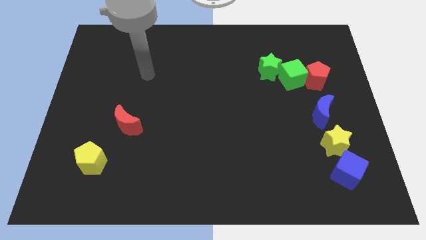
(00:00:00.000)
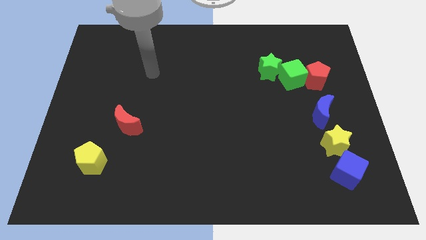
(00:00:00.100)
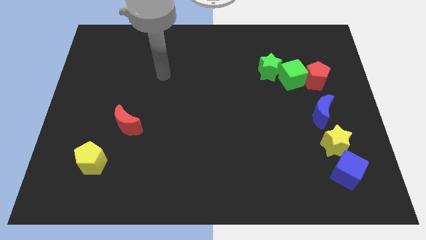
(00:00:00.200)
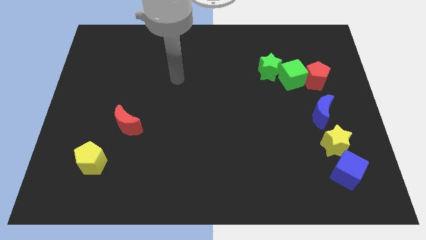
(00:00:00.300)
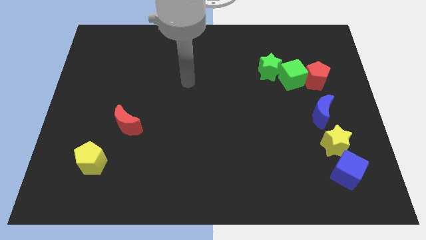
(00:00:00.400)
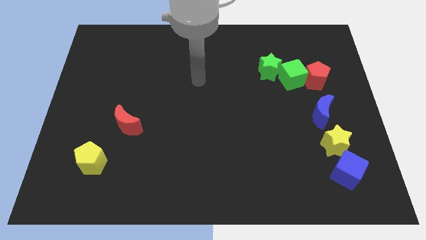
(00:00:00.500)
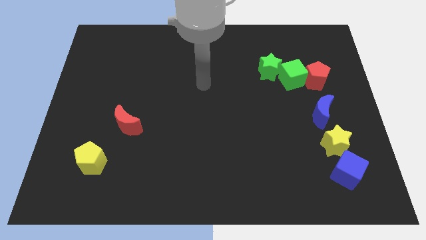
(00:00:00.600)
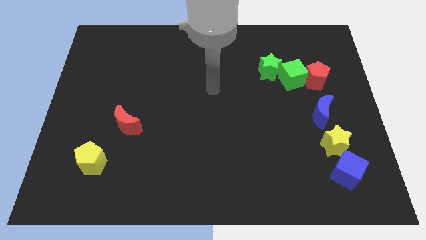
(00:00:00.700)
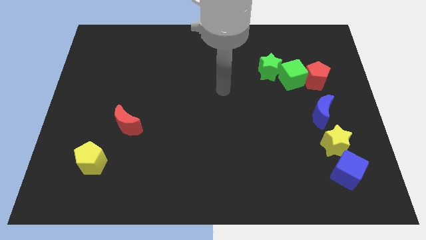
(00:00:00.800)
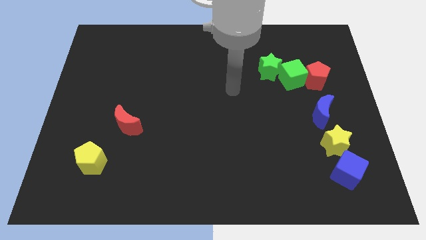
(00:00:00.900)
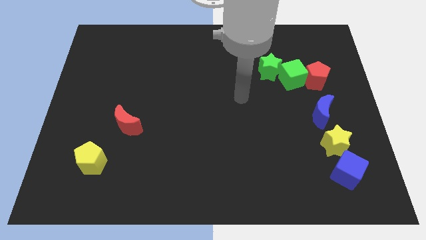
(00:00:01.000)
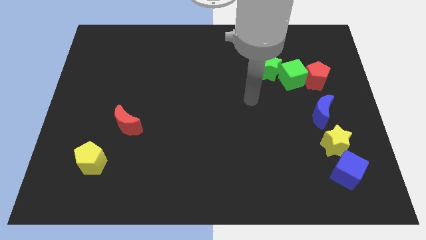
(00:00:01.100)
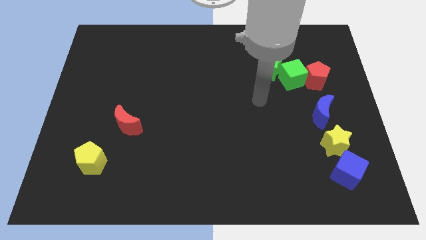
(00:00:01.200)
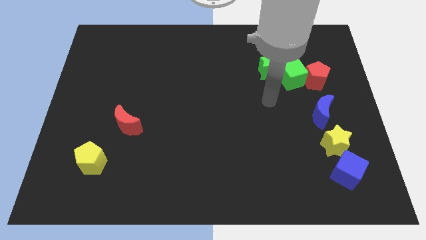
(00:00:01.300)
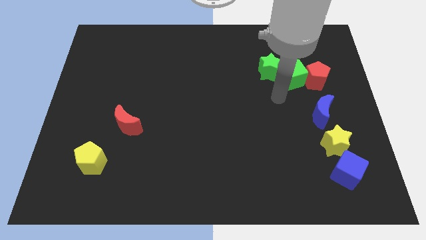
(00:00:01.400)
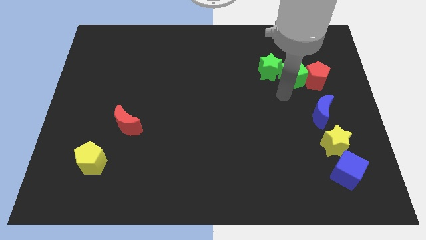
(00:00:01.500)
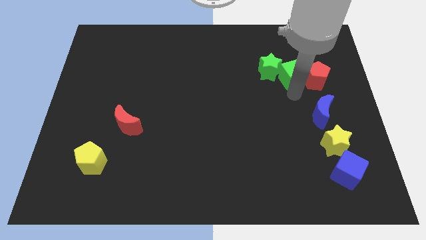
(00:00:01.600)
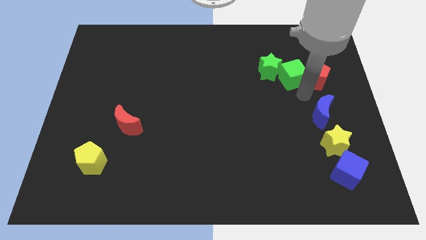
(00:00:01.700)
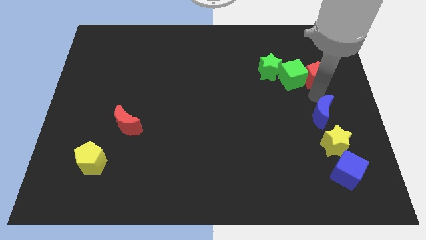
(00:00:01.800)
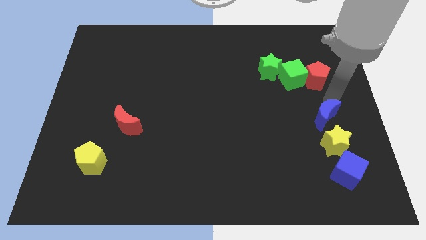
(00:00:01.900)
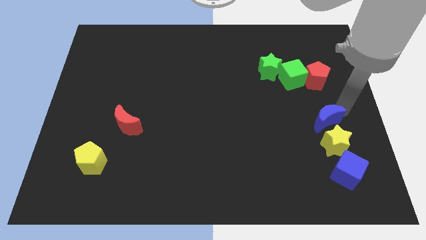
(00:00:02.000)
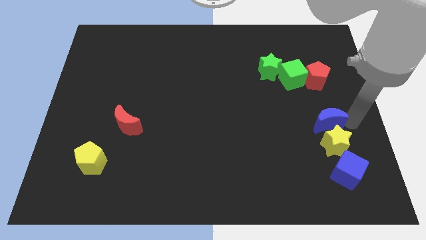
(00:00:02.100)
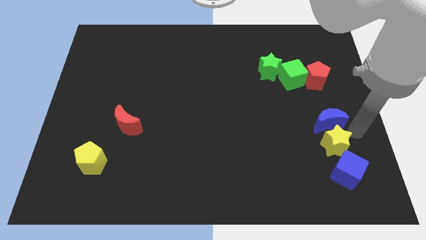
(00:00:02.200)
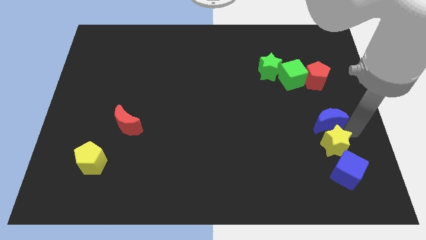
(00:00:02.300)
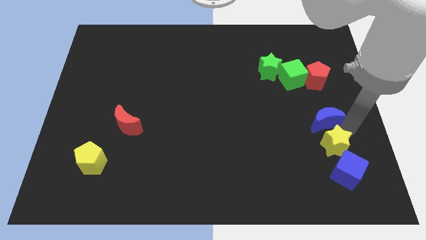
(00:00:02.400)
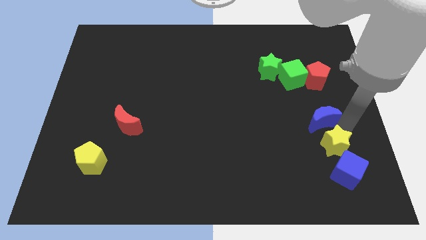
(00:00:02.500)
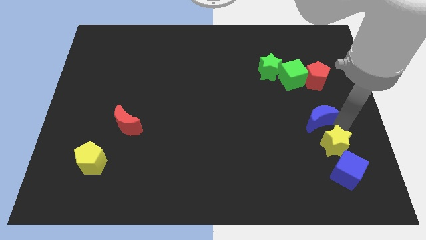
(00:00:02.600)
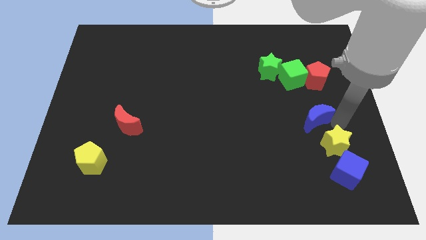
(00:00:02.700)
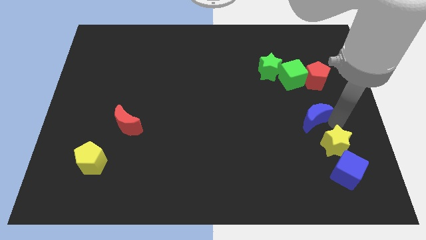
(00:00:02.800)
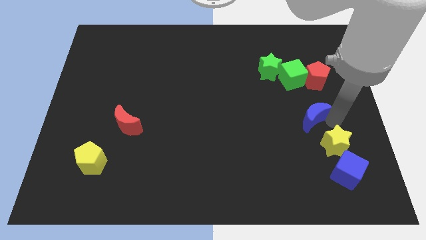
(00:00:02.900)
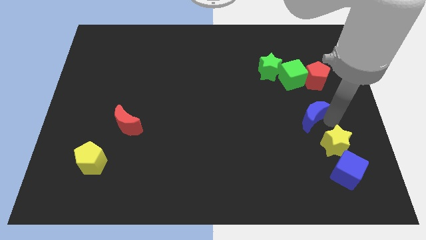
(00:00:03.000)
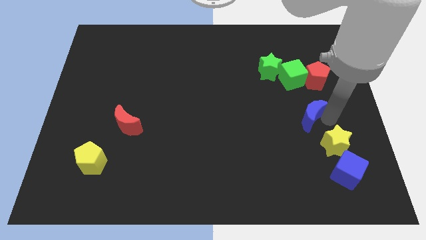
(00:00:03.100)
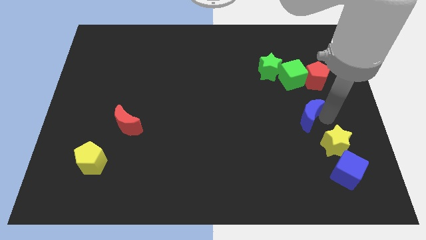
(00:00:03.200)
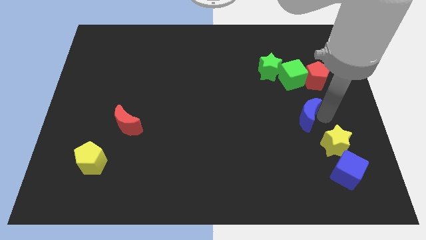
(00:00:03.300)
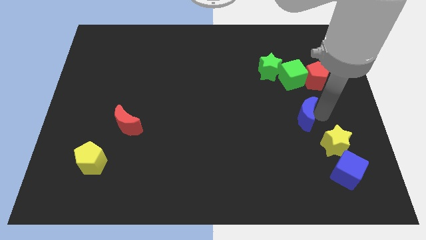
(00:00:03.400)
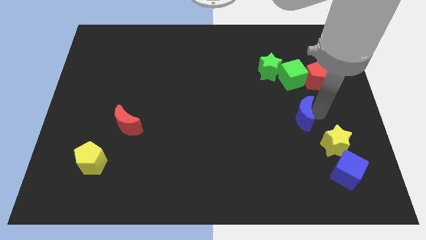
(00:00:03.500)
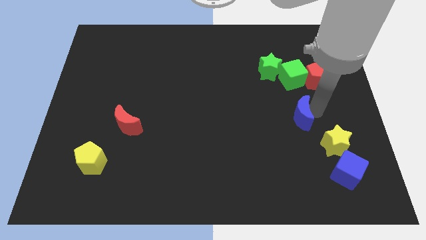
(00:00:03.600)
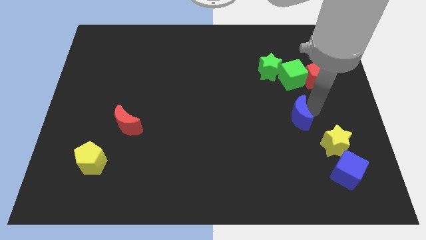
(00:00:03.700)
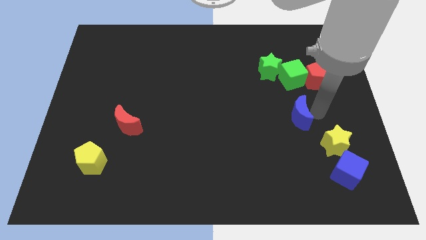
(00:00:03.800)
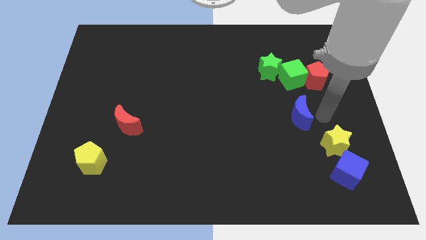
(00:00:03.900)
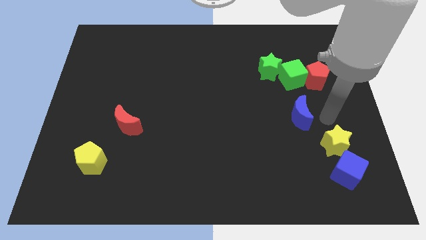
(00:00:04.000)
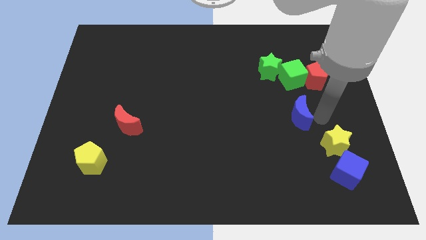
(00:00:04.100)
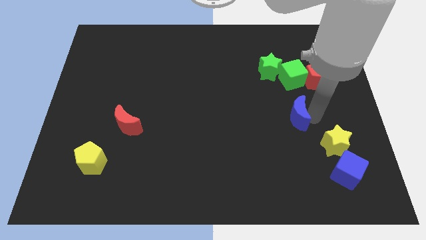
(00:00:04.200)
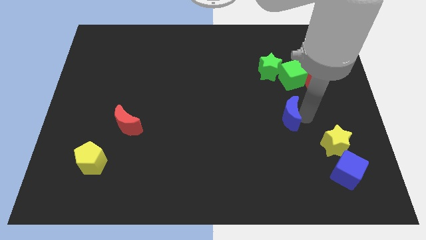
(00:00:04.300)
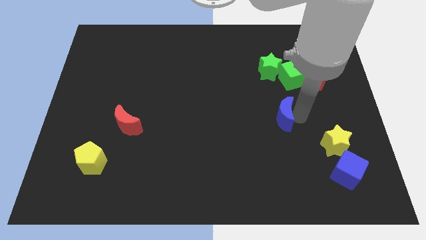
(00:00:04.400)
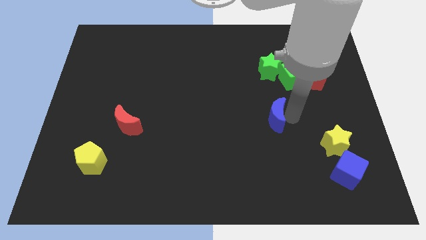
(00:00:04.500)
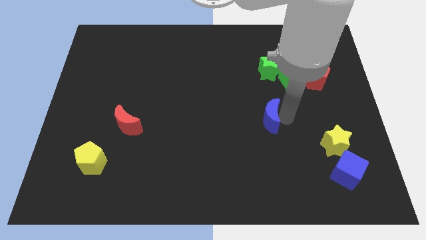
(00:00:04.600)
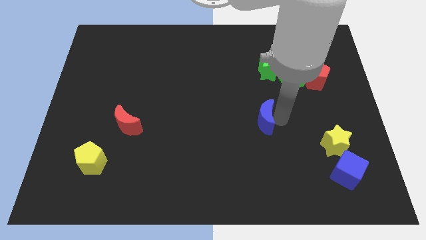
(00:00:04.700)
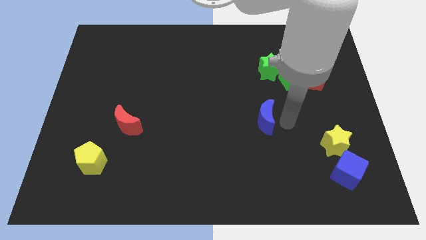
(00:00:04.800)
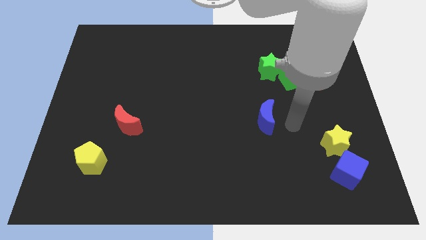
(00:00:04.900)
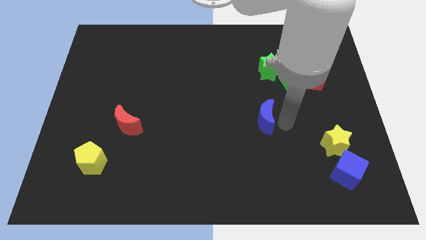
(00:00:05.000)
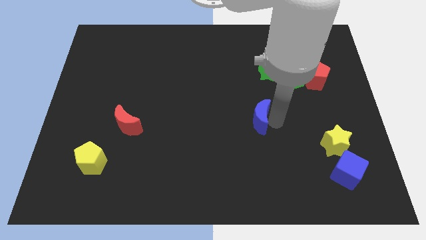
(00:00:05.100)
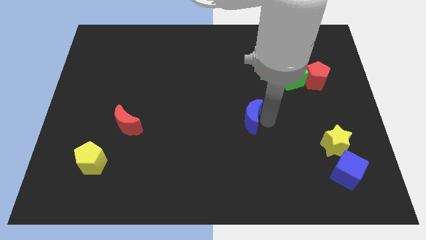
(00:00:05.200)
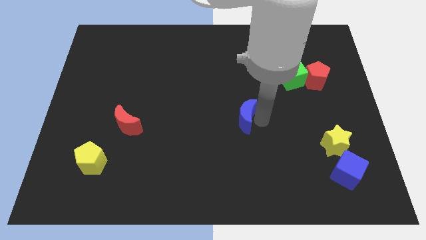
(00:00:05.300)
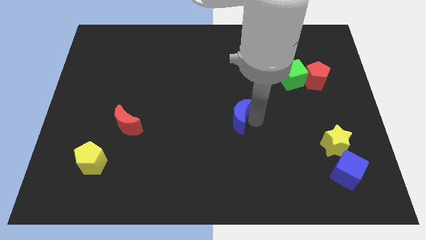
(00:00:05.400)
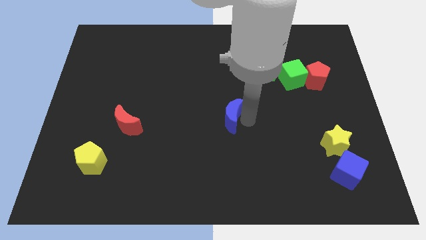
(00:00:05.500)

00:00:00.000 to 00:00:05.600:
push the blue moon to the left

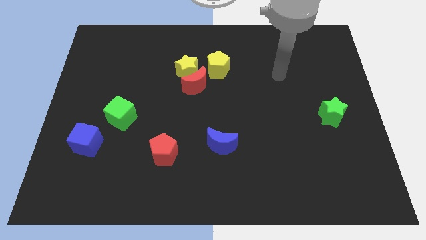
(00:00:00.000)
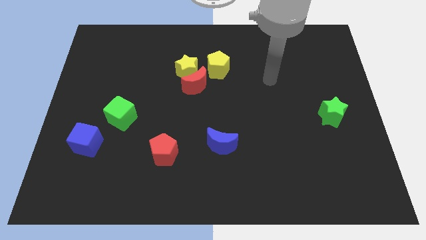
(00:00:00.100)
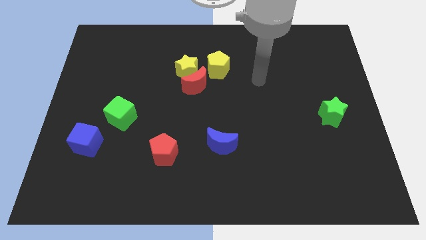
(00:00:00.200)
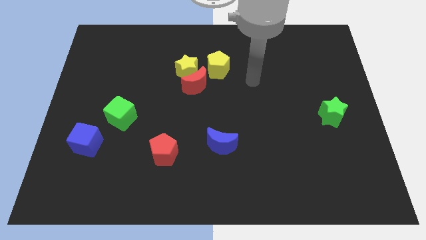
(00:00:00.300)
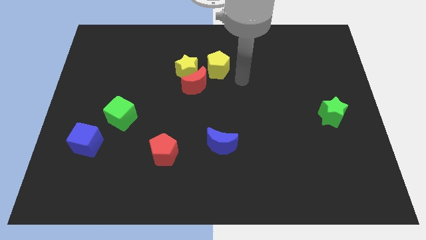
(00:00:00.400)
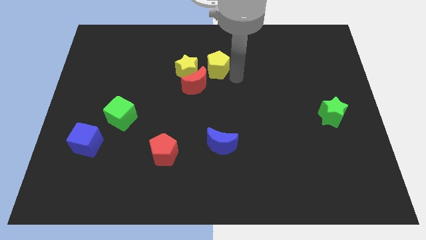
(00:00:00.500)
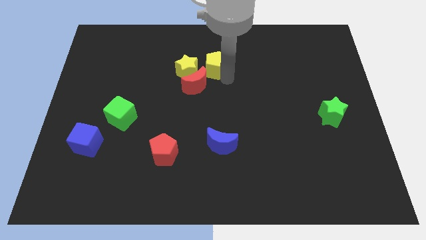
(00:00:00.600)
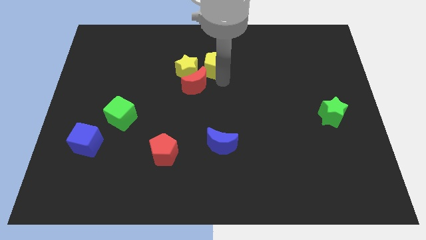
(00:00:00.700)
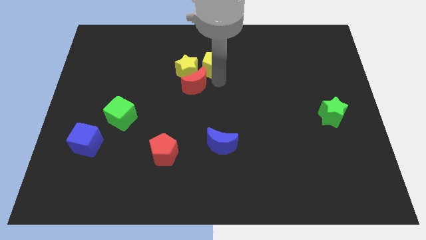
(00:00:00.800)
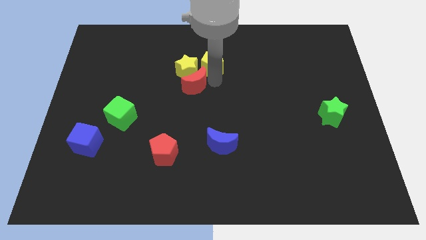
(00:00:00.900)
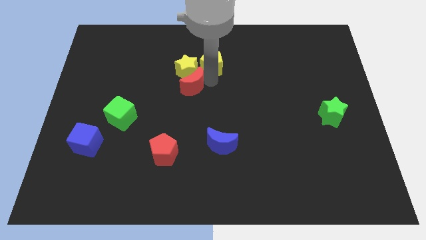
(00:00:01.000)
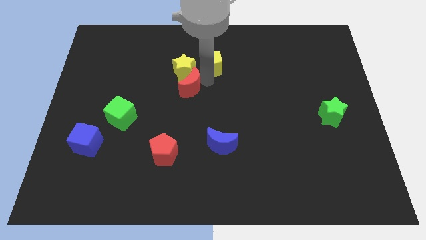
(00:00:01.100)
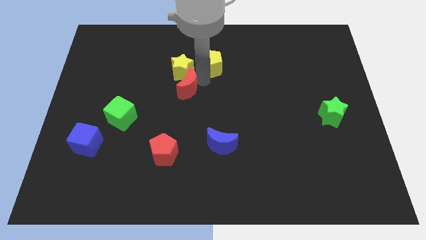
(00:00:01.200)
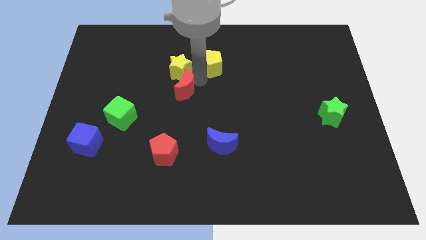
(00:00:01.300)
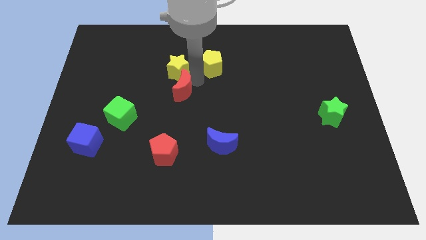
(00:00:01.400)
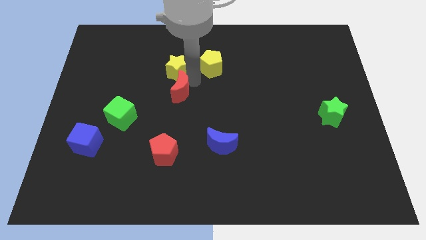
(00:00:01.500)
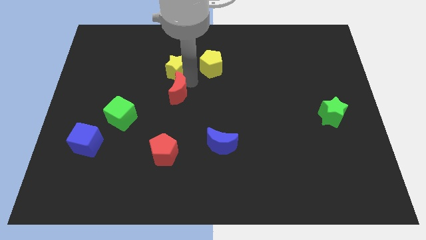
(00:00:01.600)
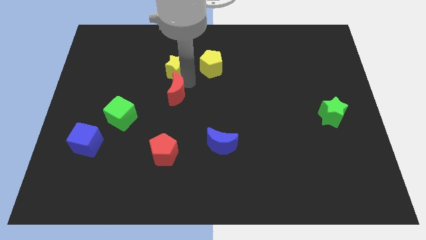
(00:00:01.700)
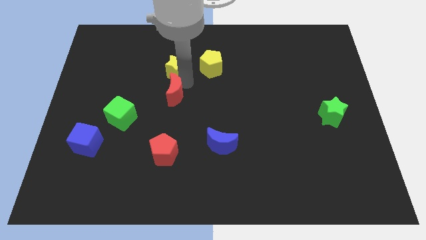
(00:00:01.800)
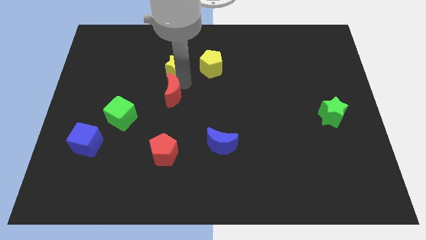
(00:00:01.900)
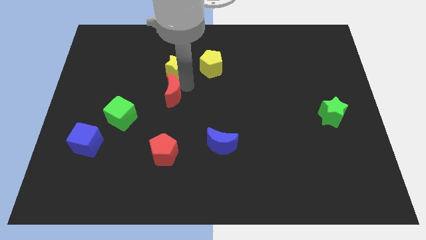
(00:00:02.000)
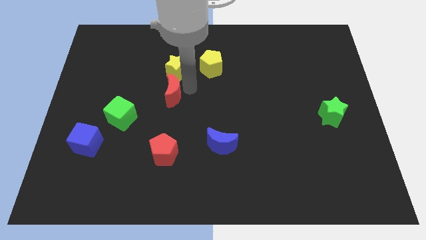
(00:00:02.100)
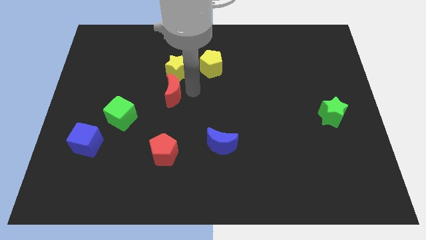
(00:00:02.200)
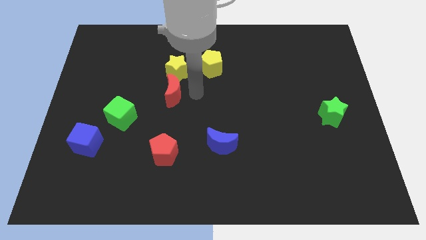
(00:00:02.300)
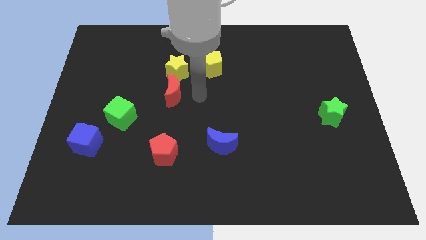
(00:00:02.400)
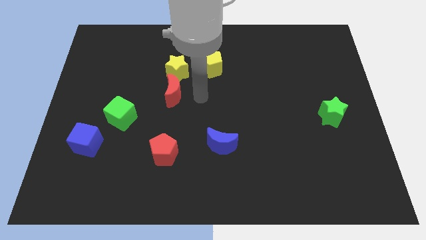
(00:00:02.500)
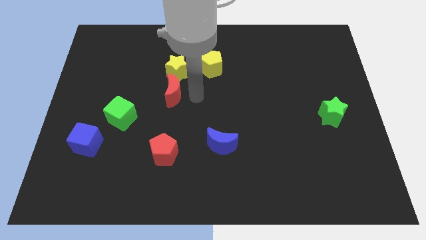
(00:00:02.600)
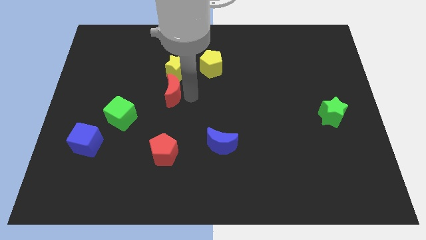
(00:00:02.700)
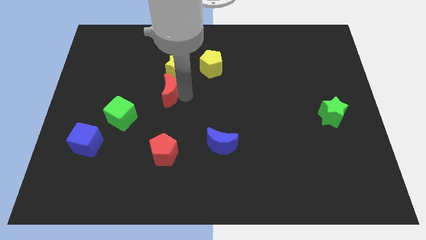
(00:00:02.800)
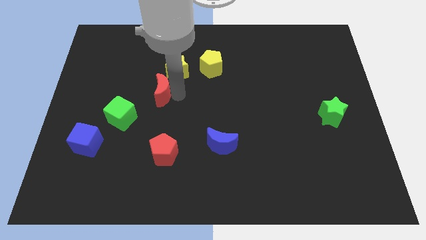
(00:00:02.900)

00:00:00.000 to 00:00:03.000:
push the red moon slightly left
